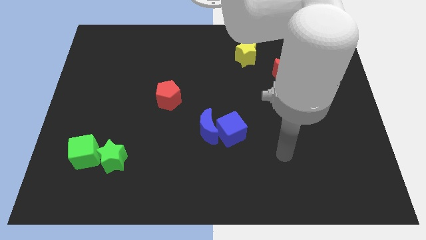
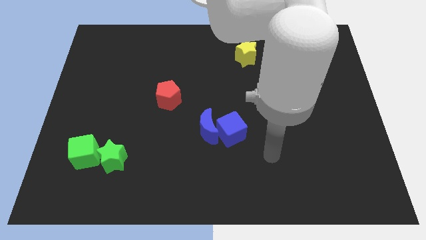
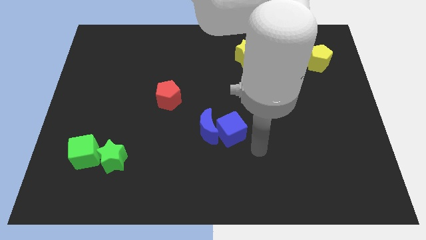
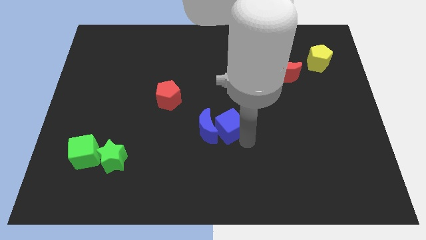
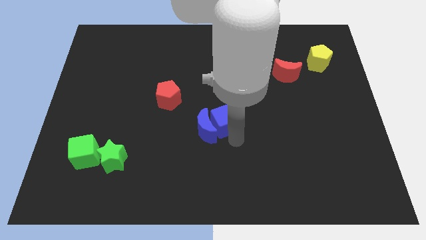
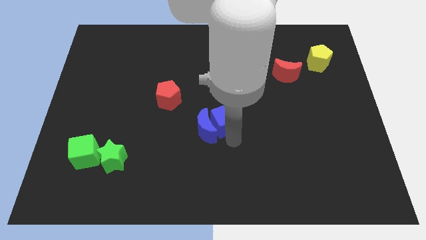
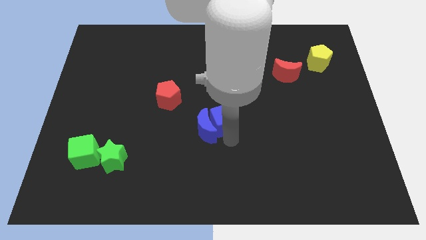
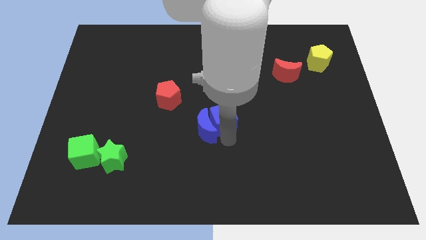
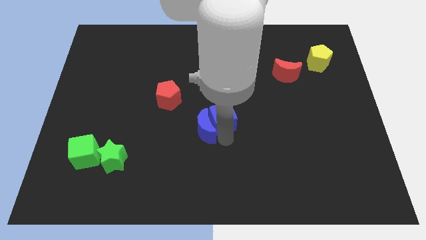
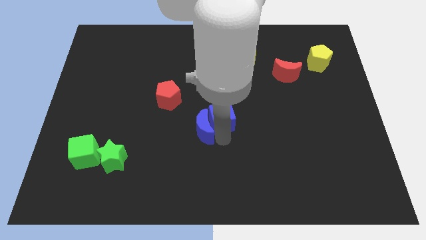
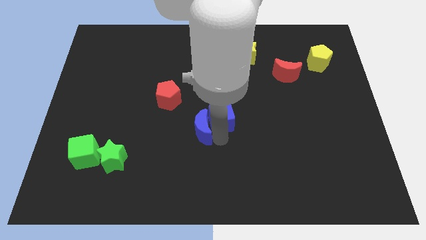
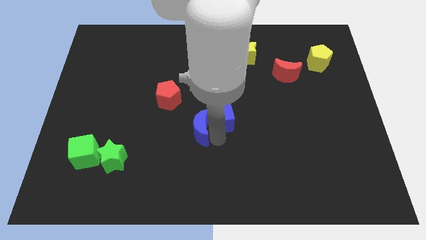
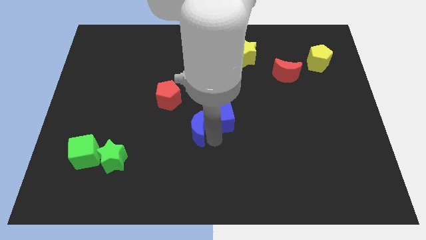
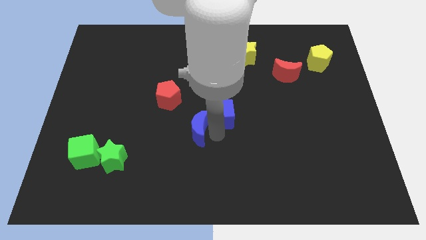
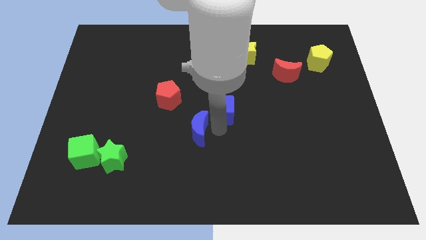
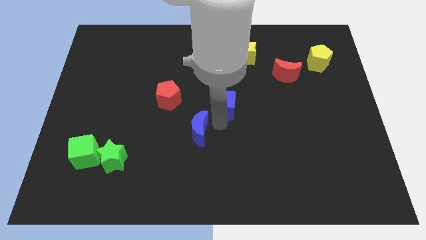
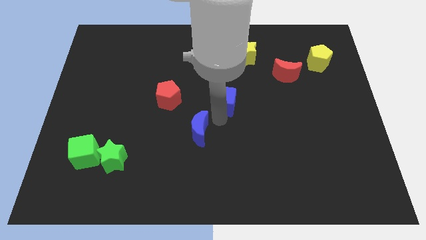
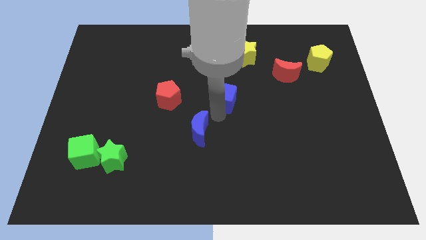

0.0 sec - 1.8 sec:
move the blue moon away from the blue cube

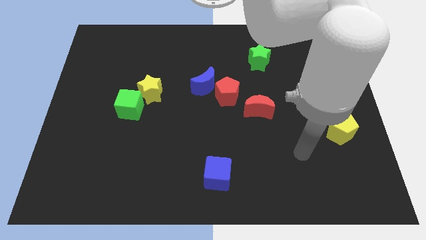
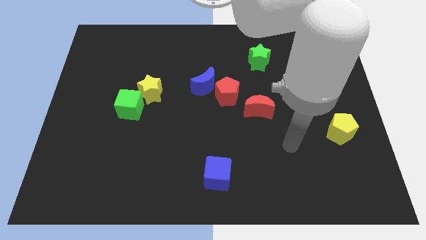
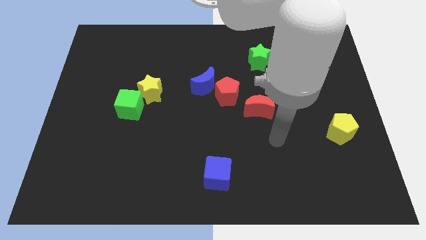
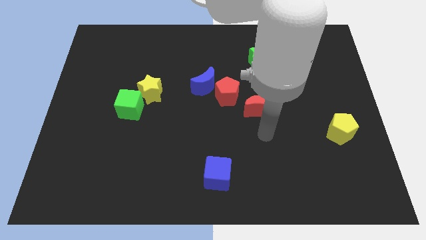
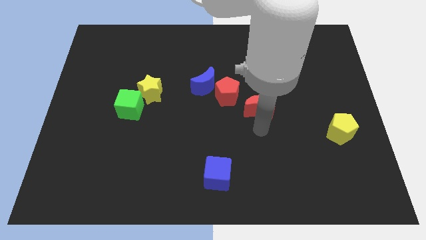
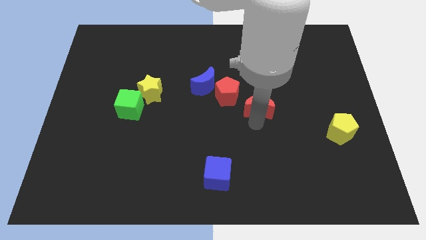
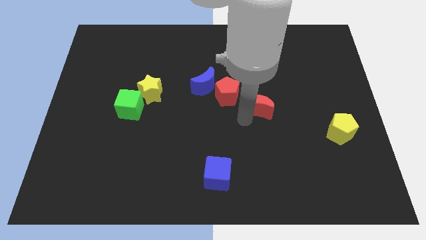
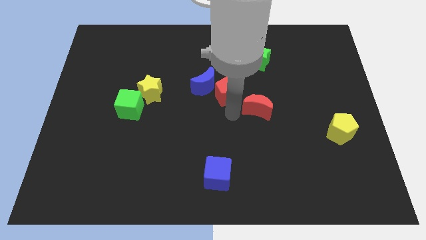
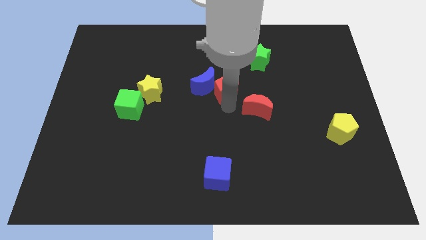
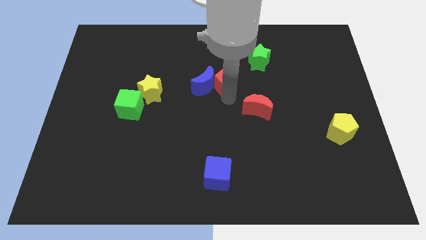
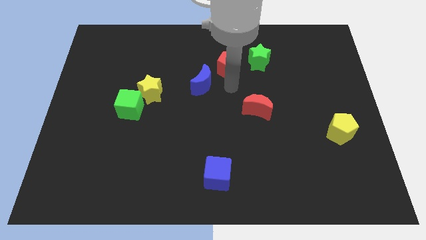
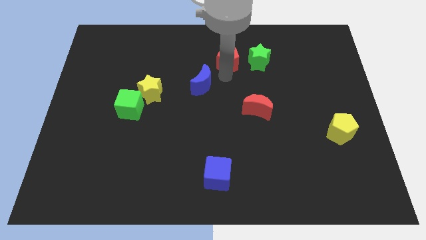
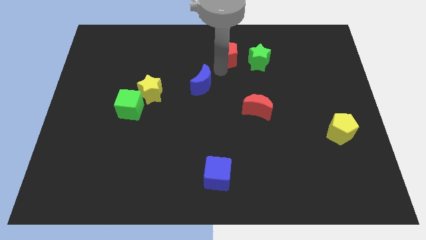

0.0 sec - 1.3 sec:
move the blue moon away from the red pentagon

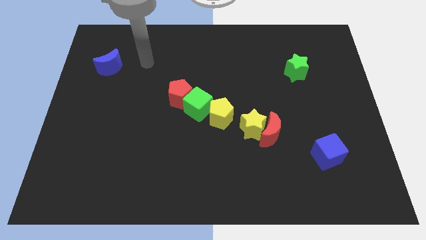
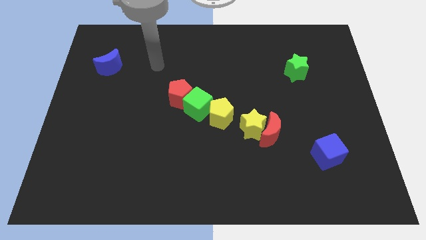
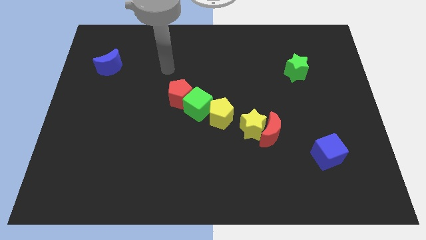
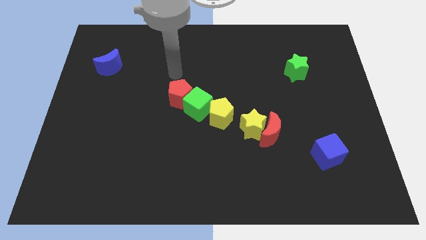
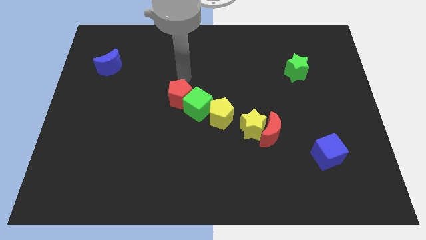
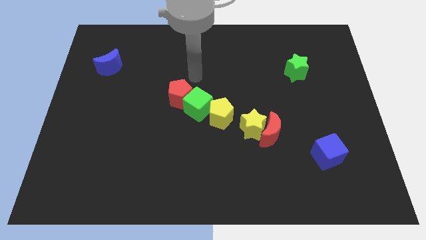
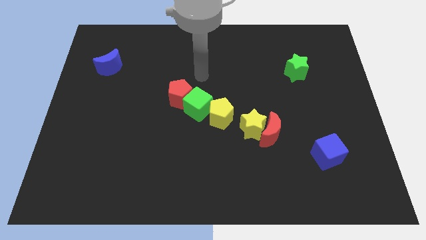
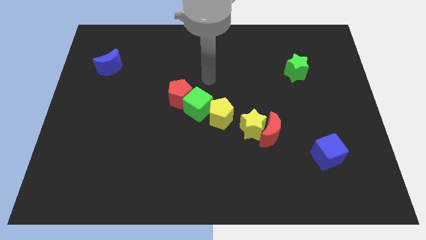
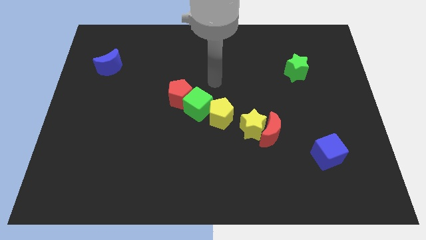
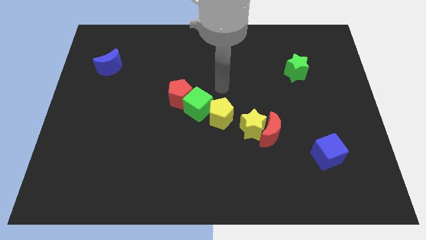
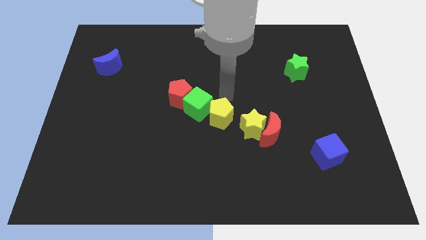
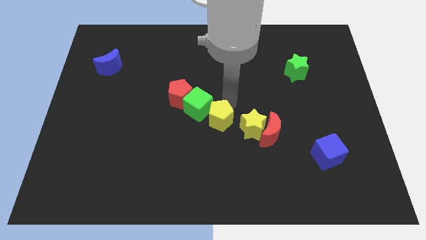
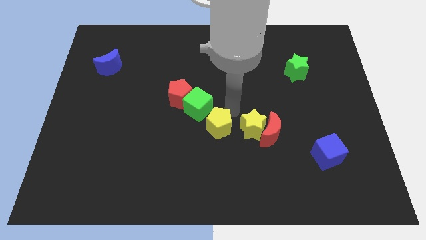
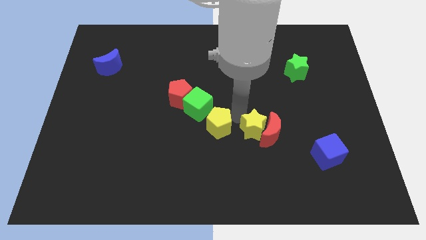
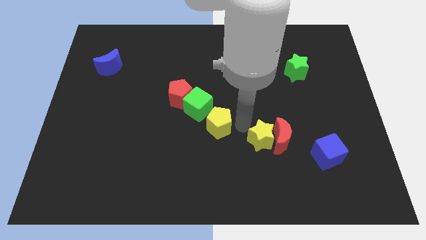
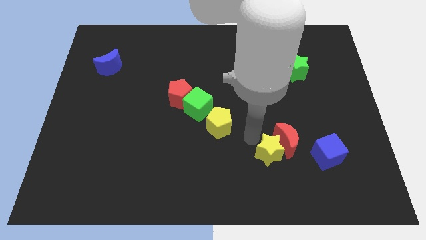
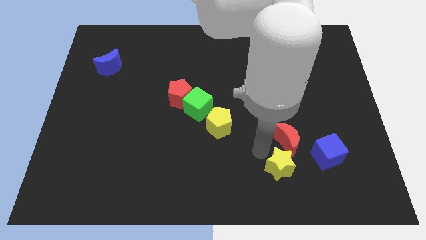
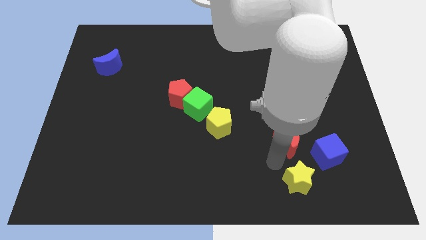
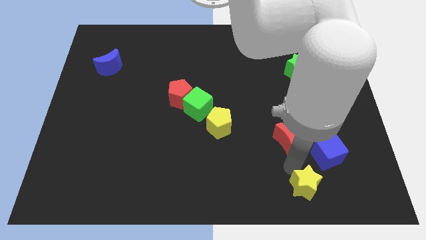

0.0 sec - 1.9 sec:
pull the red moon apart from the yellow star

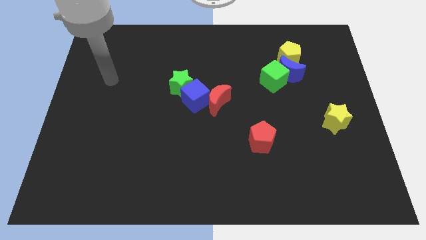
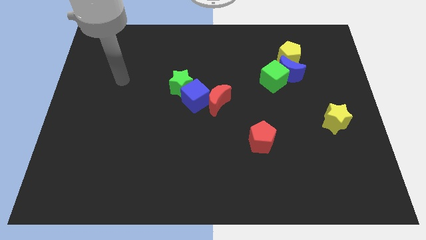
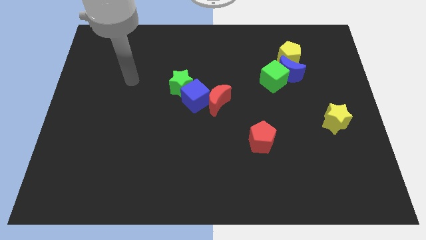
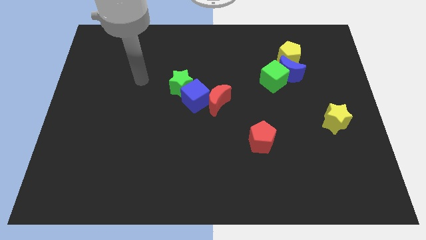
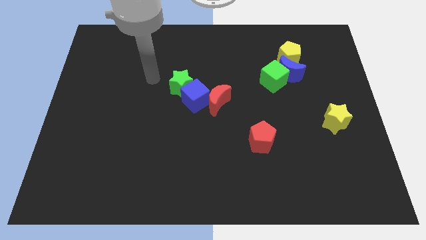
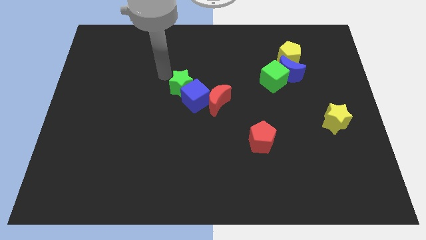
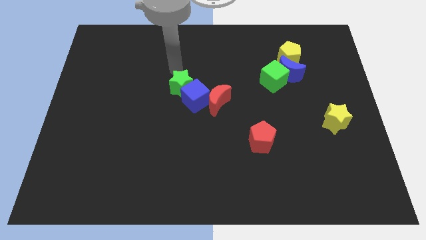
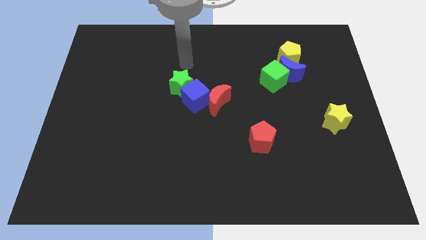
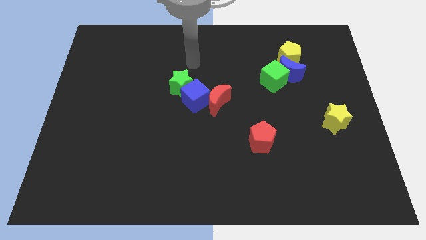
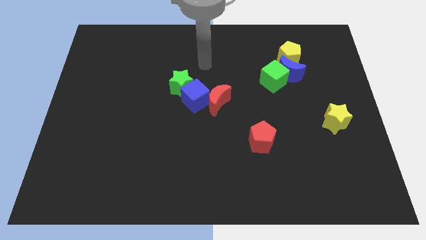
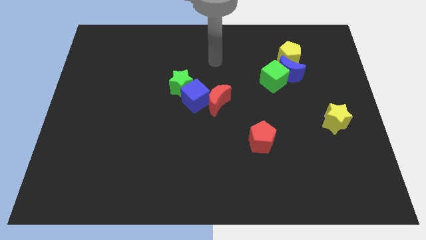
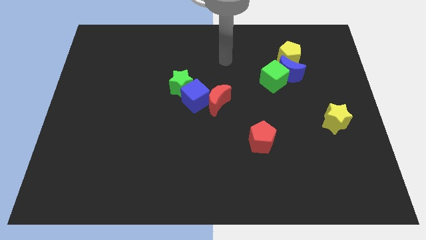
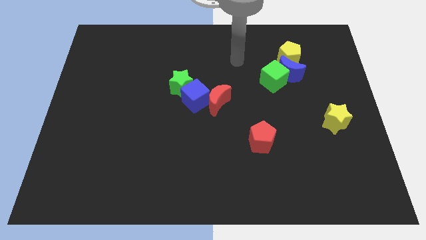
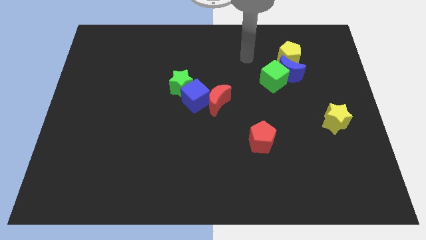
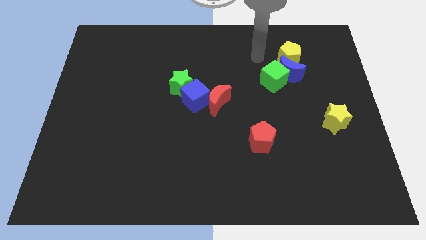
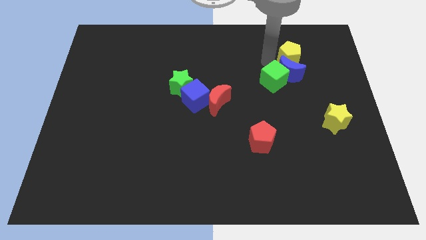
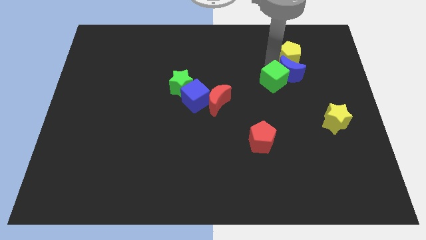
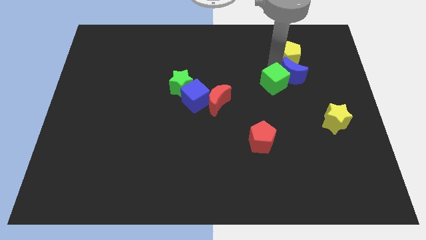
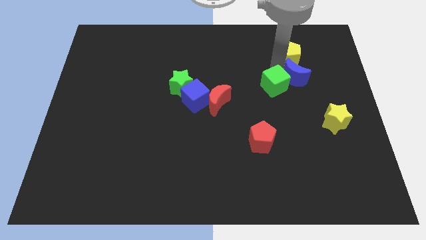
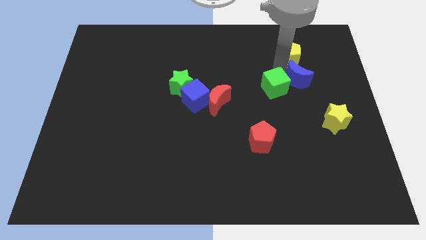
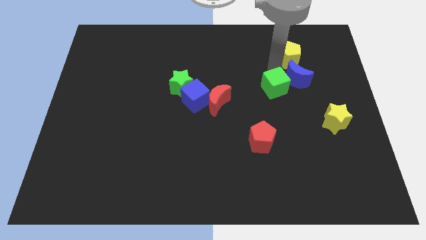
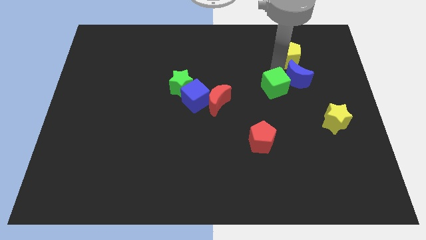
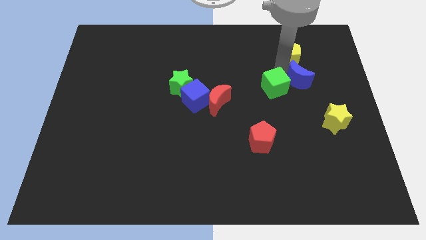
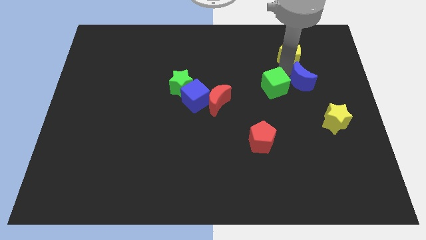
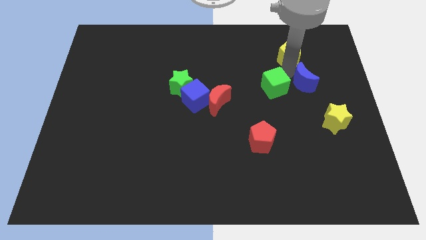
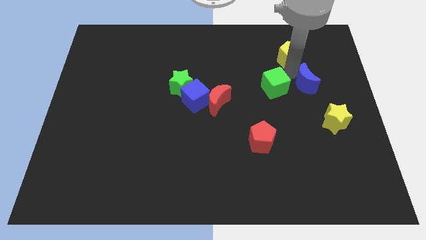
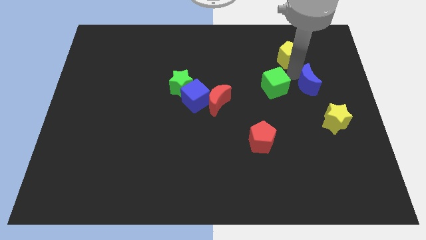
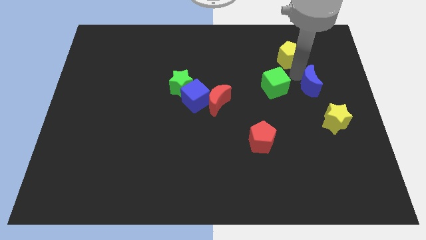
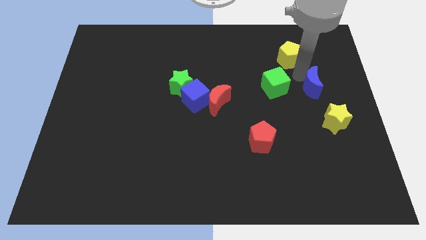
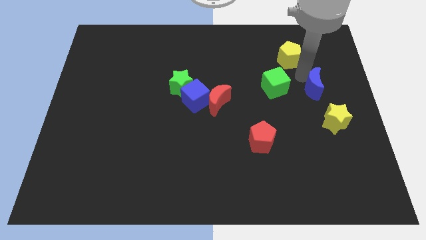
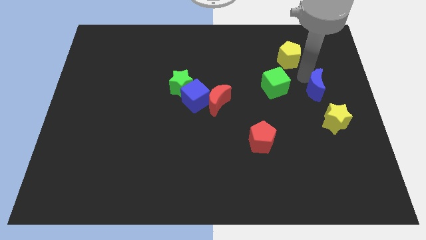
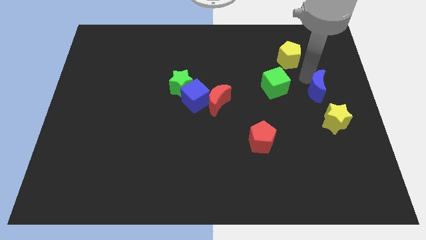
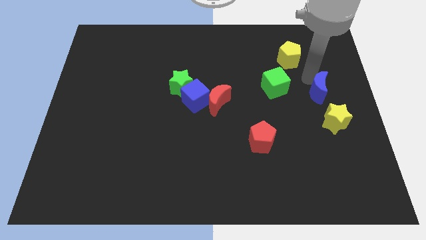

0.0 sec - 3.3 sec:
separate the blue moon from the green cube and yellow pentagon

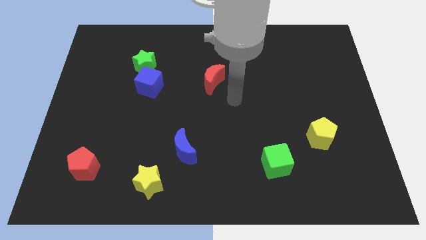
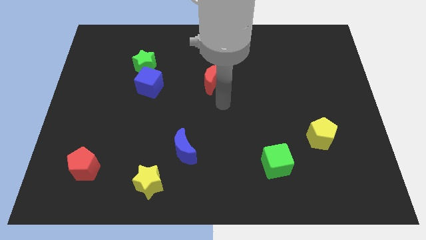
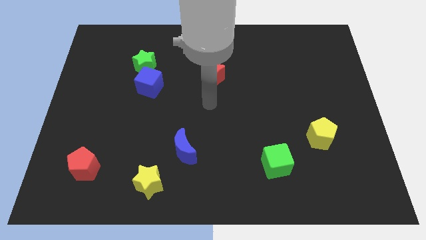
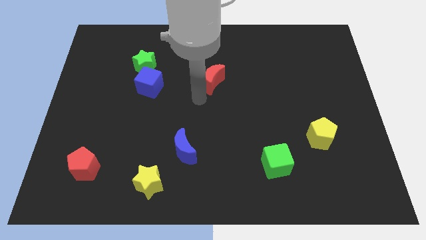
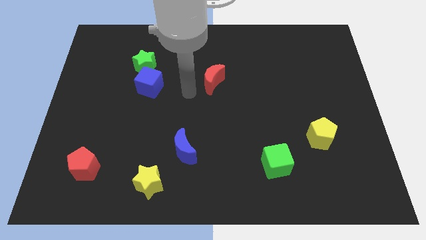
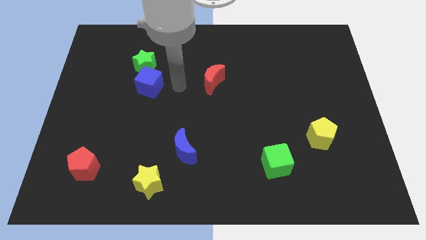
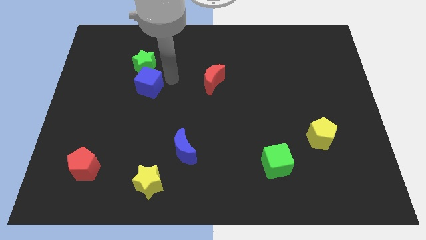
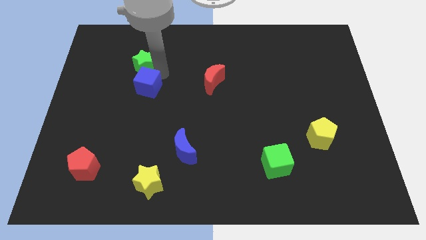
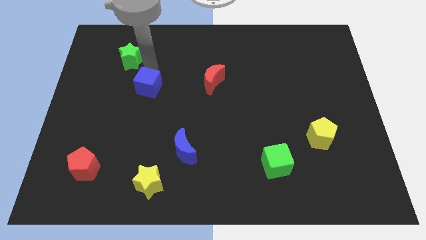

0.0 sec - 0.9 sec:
separate the blue cube from the green star
